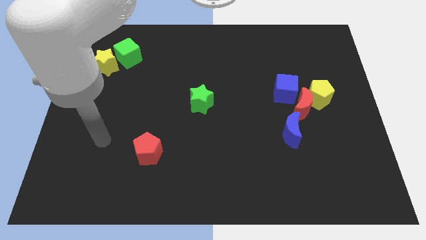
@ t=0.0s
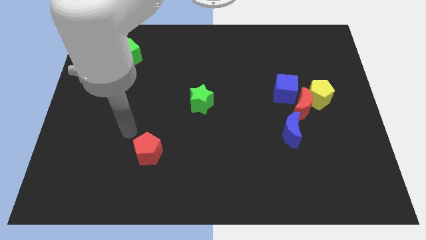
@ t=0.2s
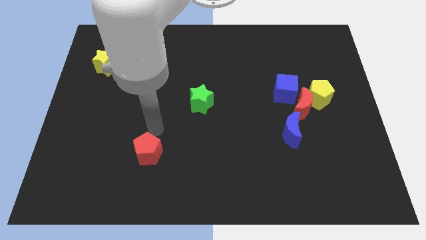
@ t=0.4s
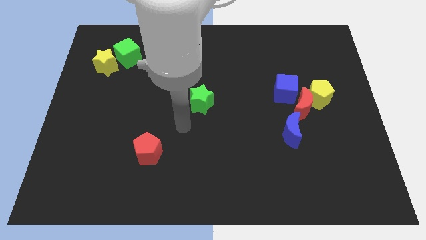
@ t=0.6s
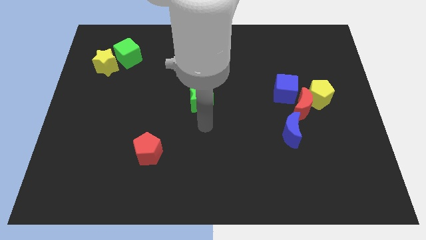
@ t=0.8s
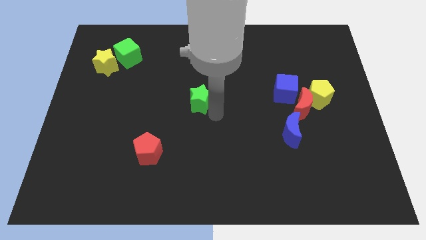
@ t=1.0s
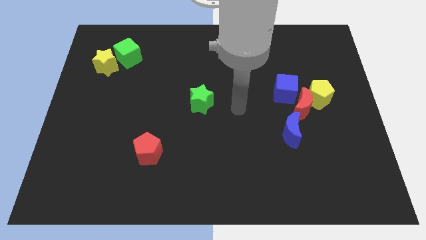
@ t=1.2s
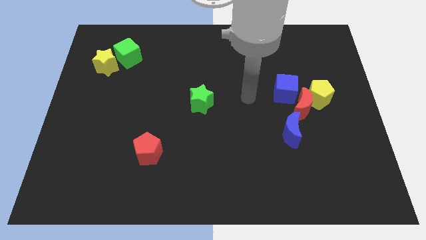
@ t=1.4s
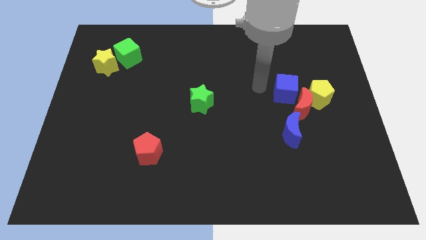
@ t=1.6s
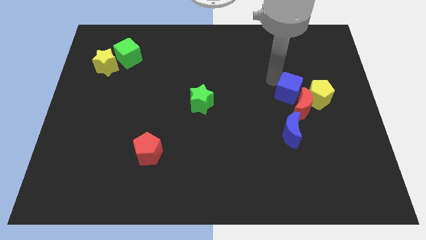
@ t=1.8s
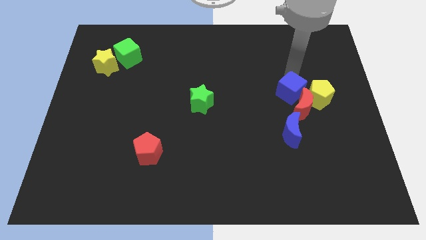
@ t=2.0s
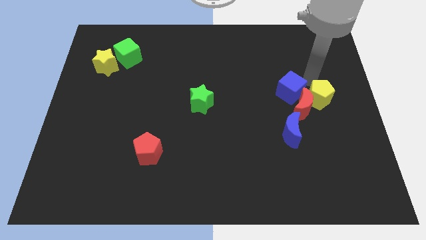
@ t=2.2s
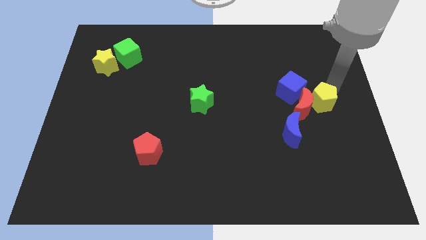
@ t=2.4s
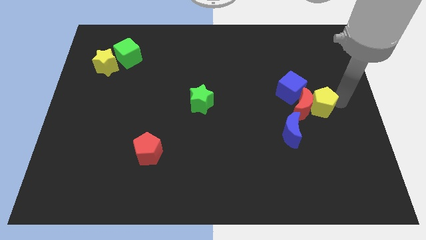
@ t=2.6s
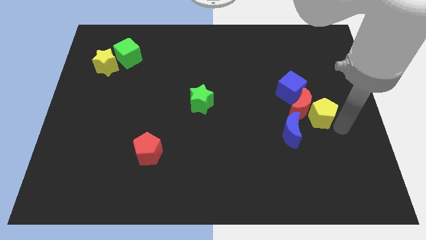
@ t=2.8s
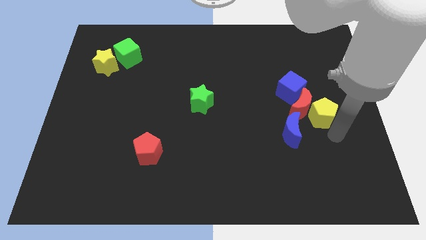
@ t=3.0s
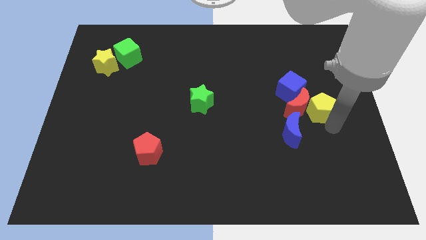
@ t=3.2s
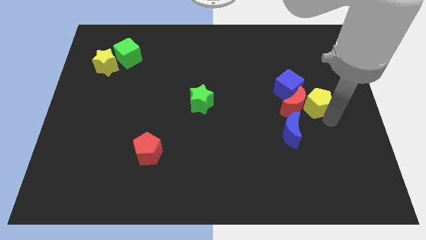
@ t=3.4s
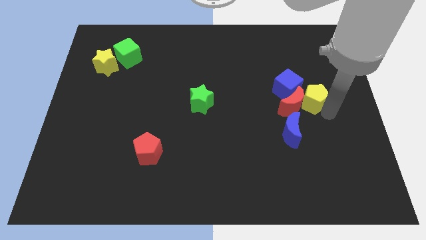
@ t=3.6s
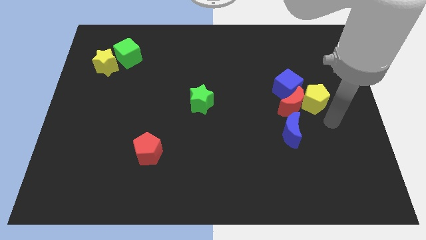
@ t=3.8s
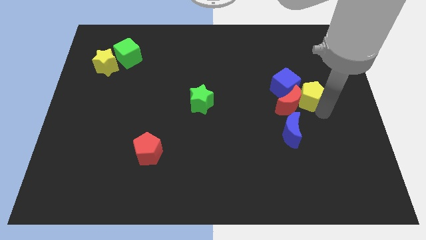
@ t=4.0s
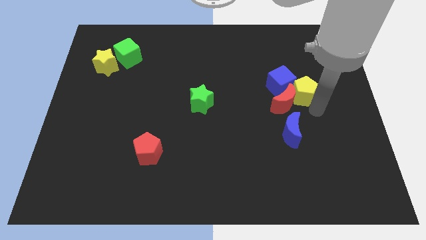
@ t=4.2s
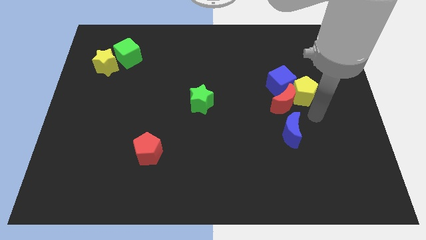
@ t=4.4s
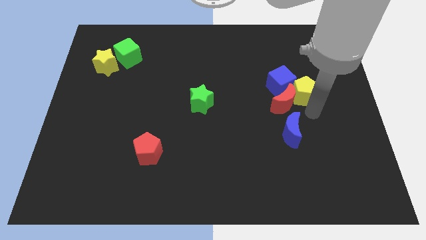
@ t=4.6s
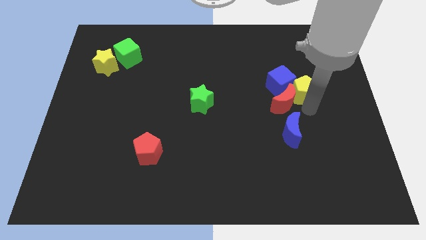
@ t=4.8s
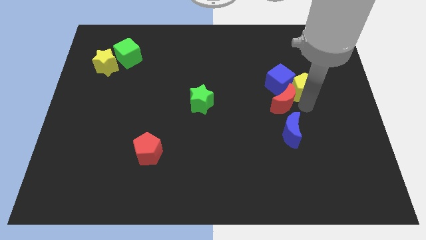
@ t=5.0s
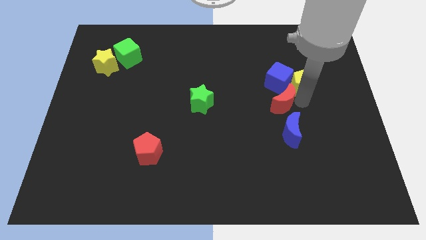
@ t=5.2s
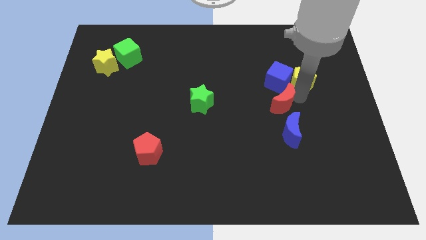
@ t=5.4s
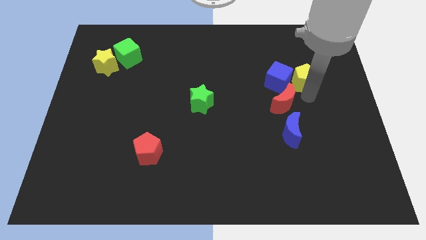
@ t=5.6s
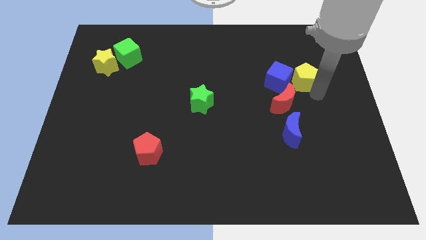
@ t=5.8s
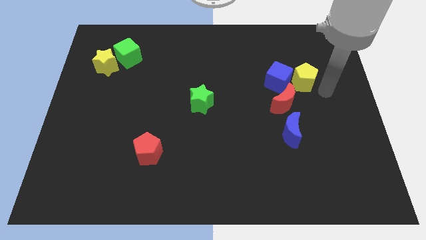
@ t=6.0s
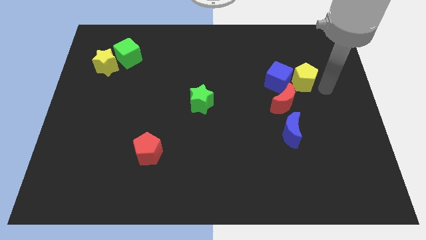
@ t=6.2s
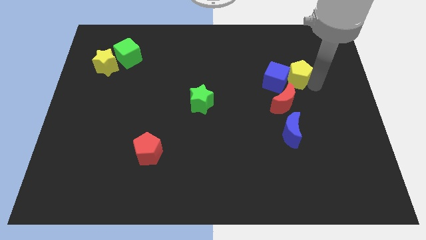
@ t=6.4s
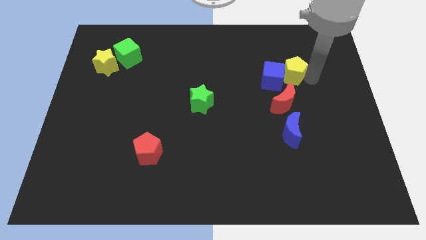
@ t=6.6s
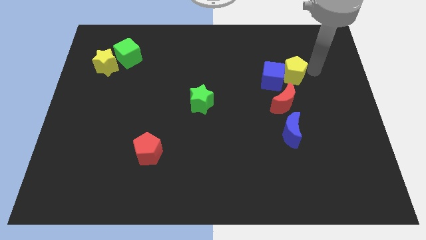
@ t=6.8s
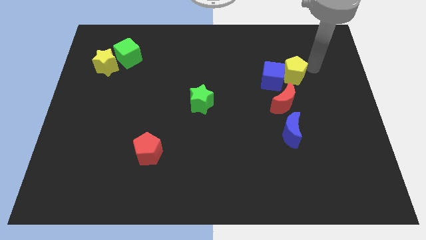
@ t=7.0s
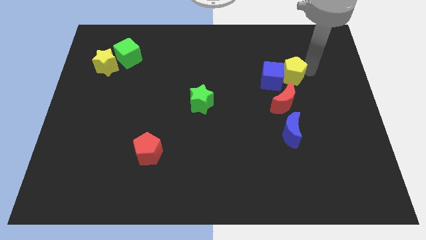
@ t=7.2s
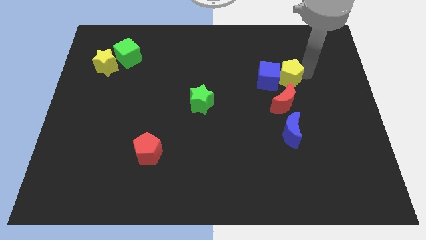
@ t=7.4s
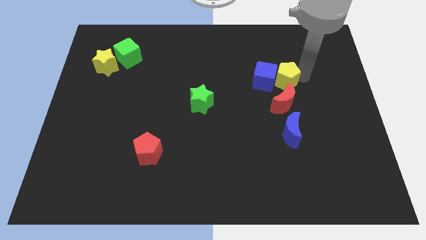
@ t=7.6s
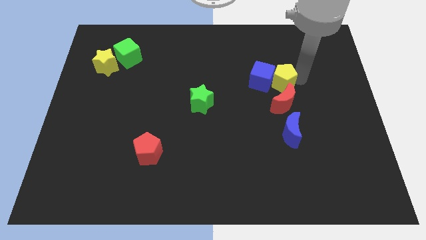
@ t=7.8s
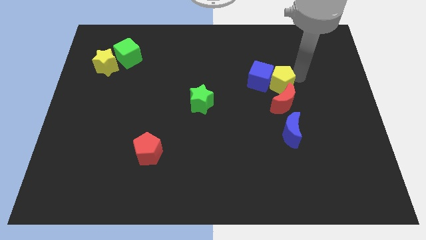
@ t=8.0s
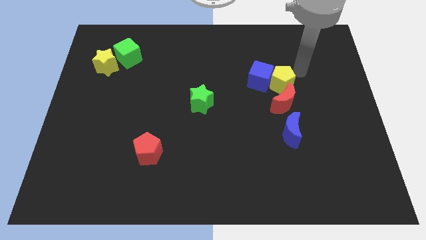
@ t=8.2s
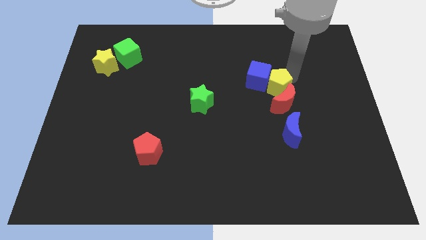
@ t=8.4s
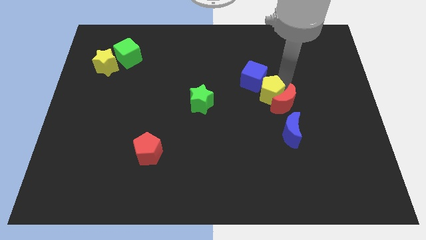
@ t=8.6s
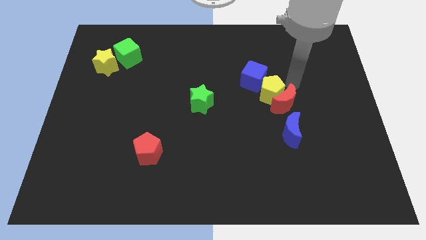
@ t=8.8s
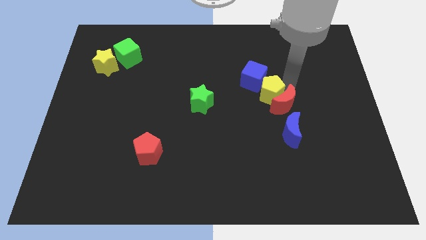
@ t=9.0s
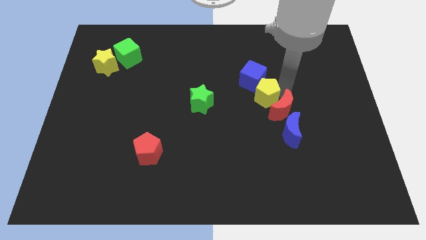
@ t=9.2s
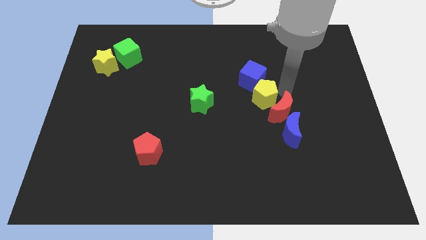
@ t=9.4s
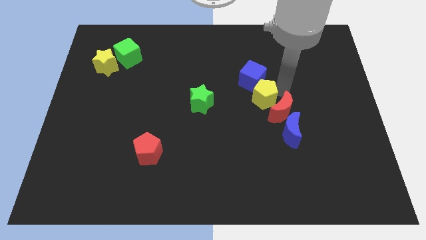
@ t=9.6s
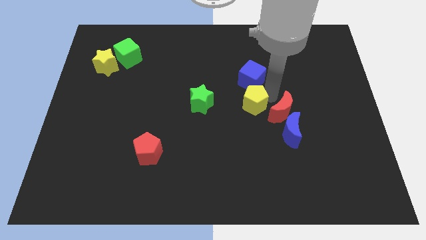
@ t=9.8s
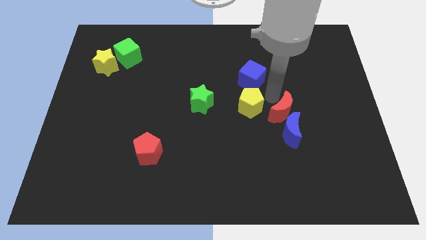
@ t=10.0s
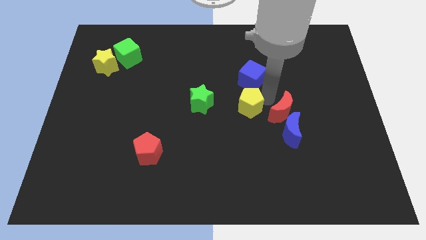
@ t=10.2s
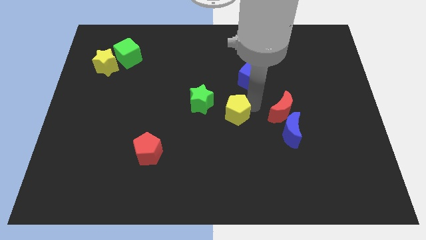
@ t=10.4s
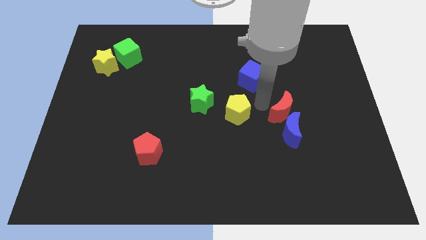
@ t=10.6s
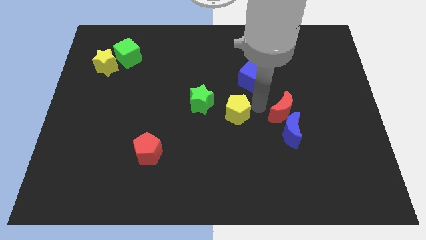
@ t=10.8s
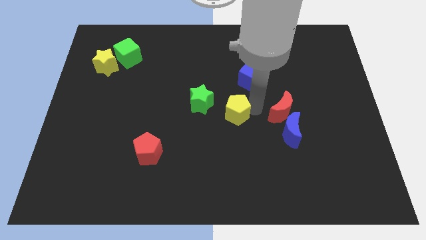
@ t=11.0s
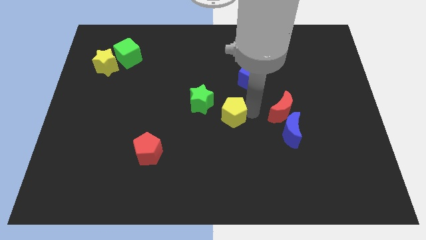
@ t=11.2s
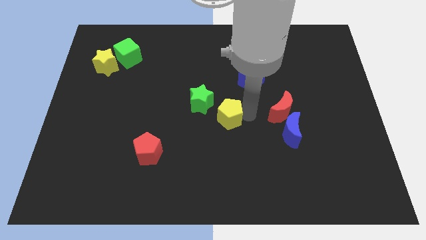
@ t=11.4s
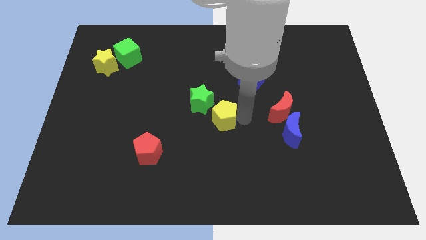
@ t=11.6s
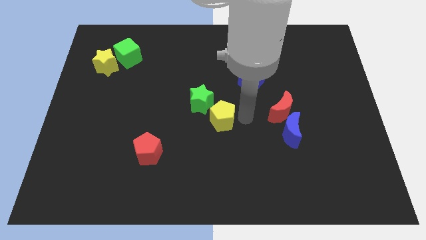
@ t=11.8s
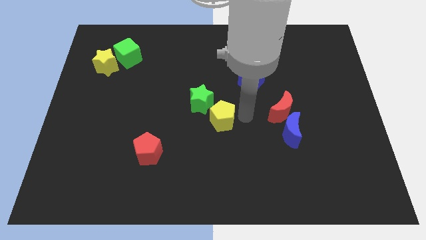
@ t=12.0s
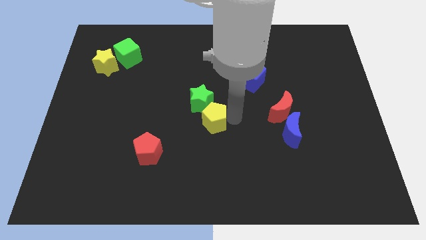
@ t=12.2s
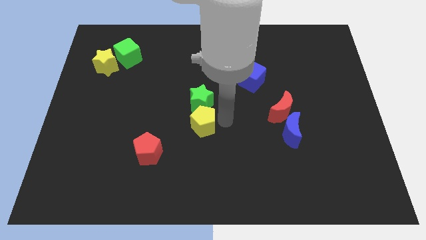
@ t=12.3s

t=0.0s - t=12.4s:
put the yellow pentagon diagonally down and to the left of the green star
